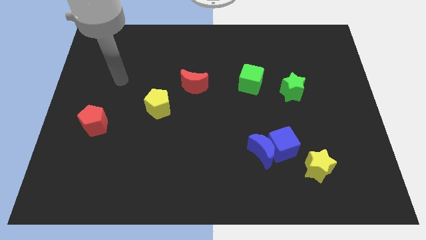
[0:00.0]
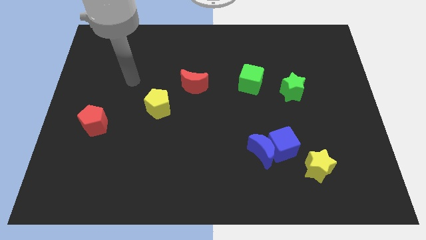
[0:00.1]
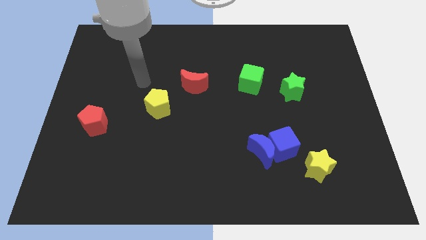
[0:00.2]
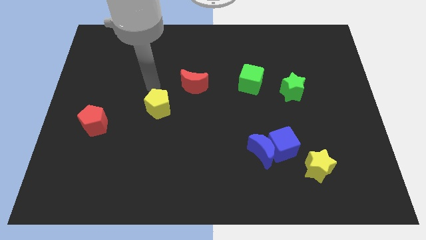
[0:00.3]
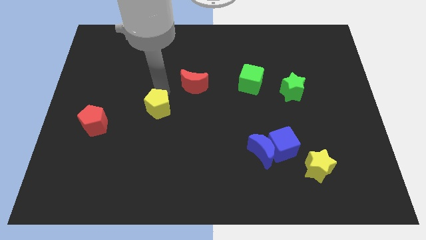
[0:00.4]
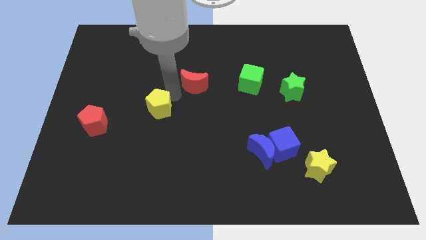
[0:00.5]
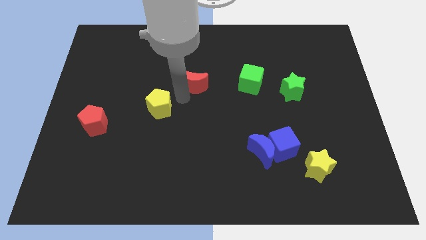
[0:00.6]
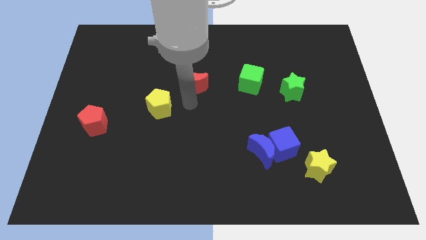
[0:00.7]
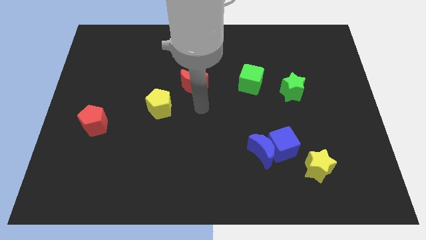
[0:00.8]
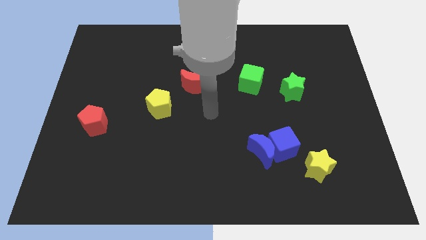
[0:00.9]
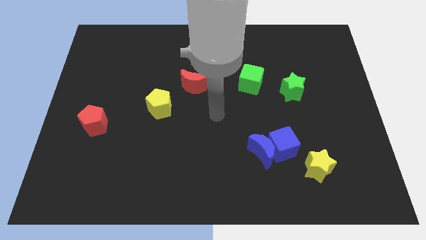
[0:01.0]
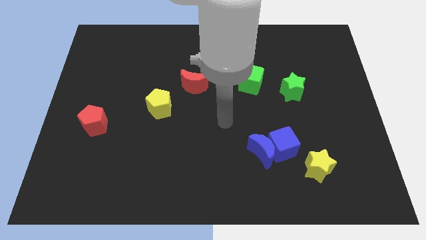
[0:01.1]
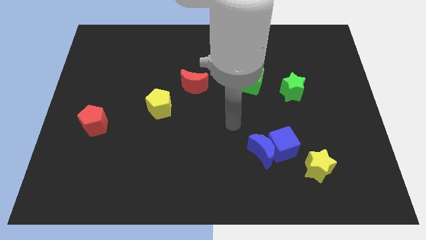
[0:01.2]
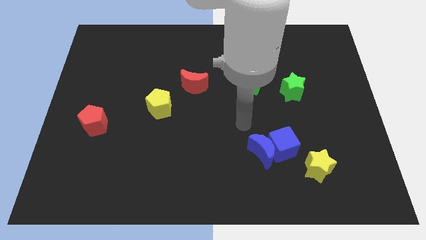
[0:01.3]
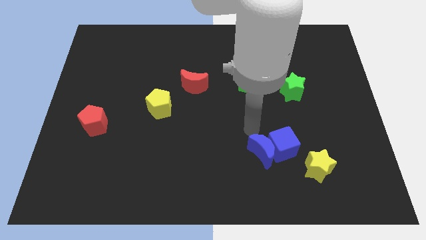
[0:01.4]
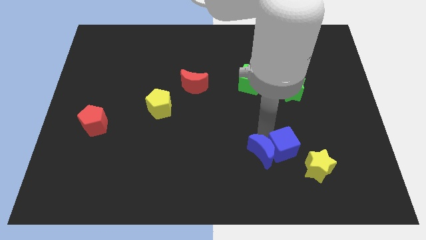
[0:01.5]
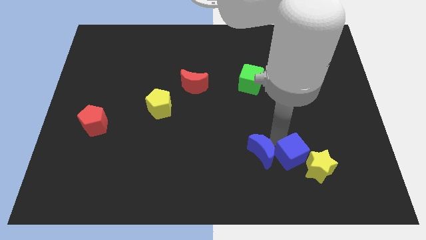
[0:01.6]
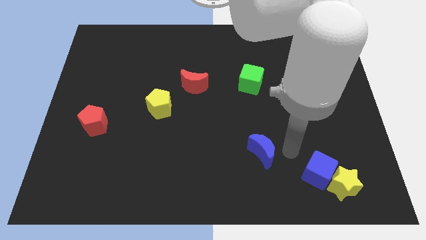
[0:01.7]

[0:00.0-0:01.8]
move the blue moon away from the blue cube

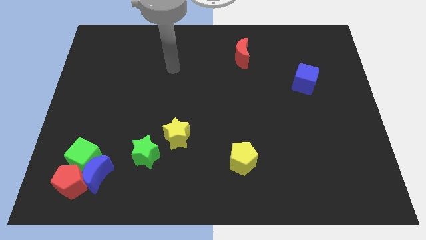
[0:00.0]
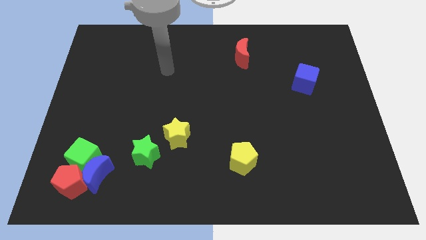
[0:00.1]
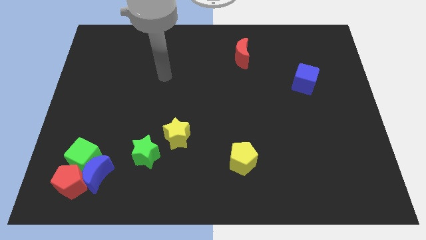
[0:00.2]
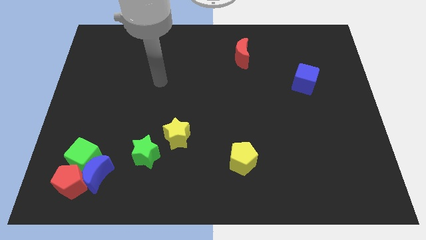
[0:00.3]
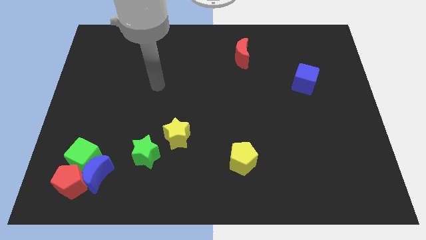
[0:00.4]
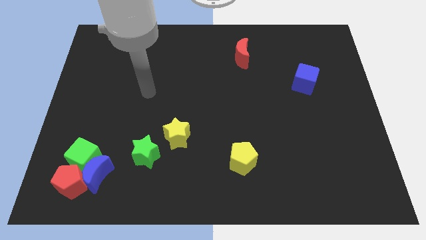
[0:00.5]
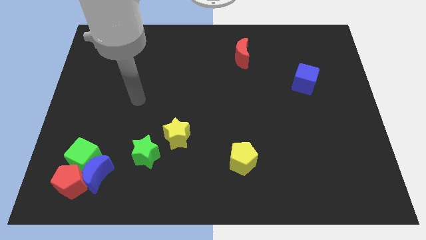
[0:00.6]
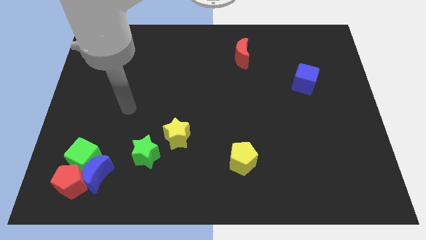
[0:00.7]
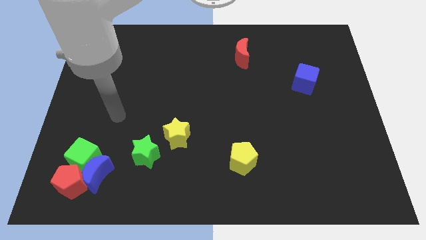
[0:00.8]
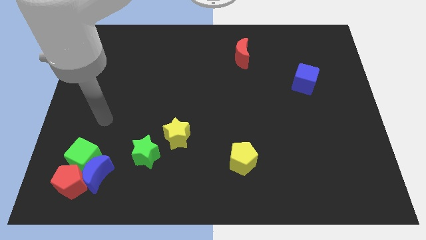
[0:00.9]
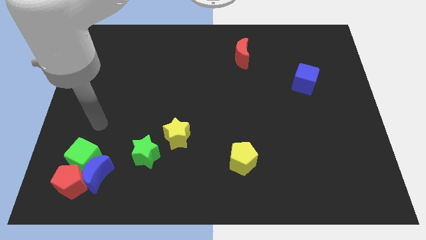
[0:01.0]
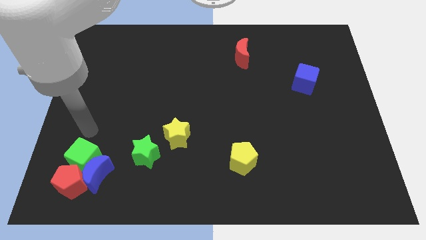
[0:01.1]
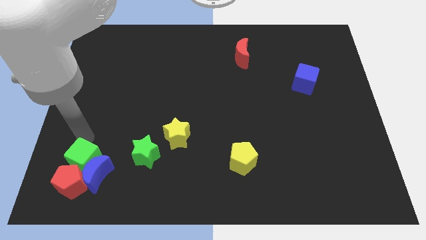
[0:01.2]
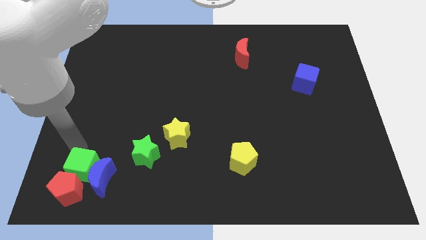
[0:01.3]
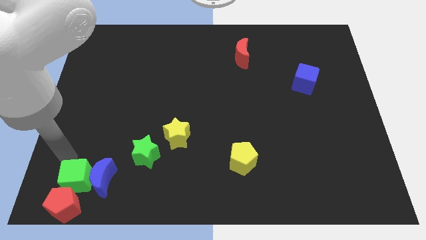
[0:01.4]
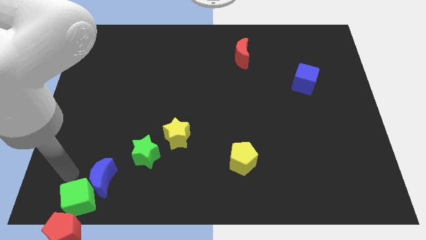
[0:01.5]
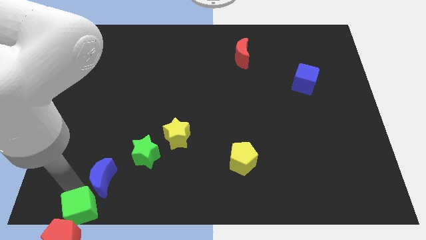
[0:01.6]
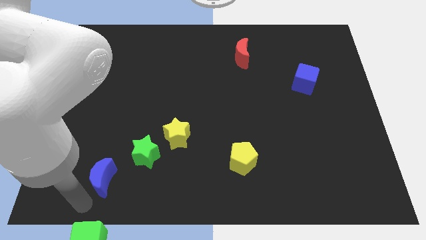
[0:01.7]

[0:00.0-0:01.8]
pull the blue moon apart from the green cube and red pentagon

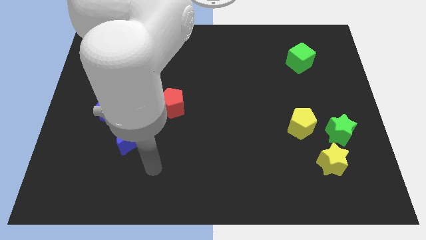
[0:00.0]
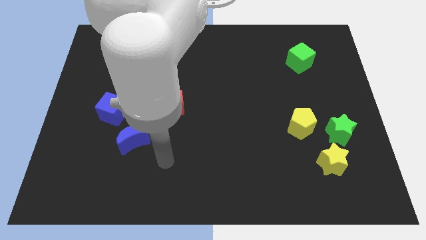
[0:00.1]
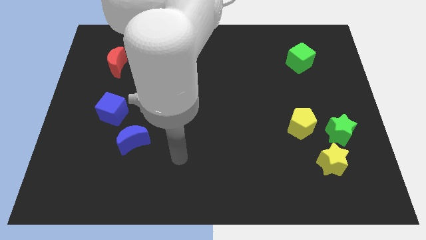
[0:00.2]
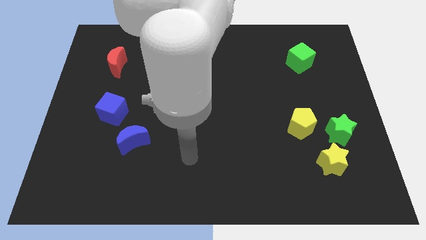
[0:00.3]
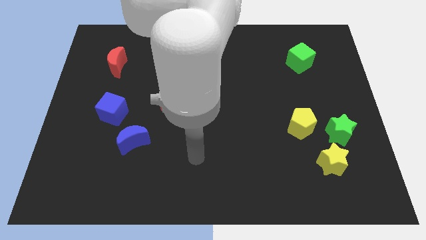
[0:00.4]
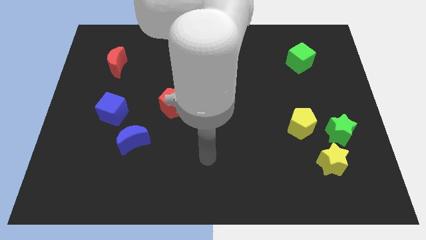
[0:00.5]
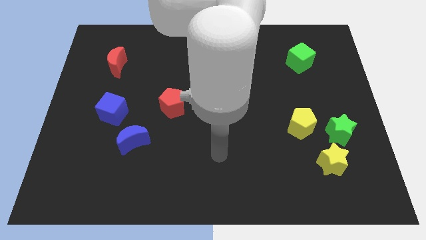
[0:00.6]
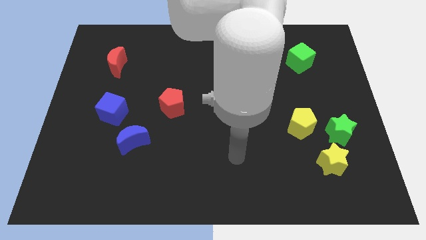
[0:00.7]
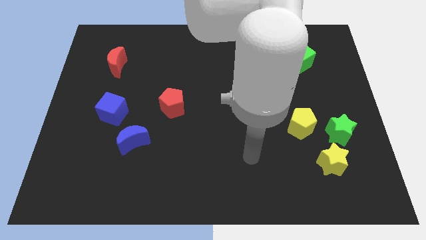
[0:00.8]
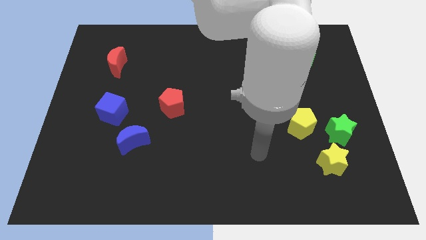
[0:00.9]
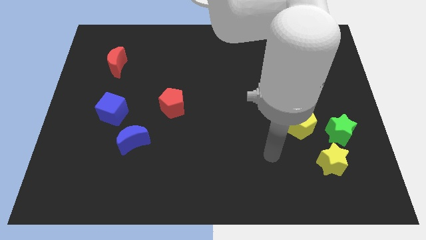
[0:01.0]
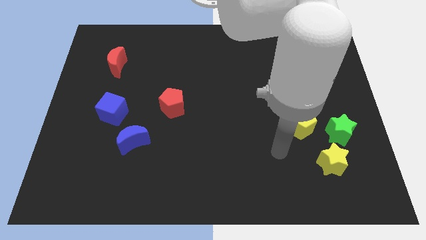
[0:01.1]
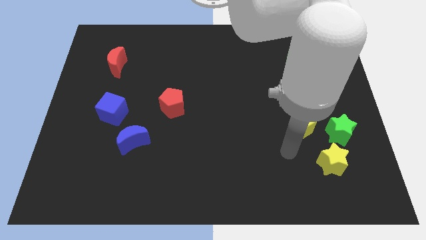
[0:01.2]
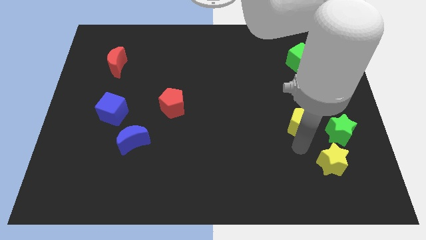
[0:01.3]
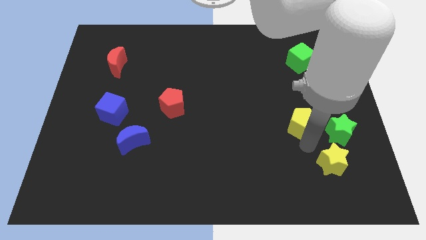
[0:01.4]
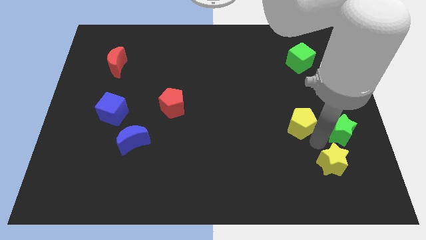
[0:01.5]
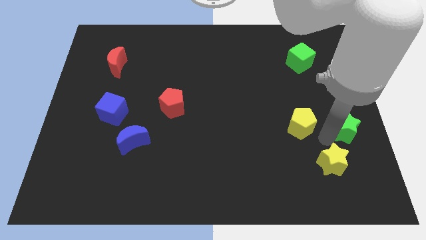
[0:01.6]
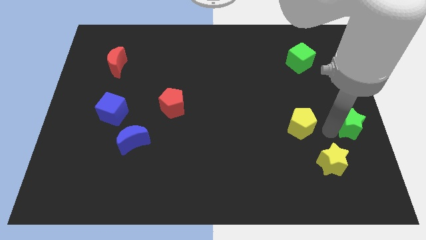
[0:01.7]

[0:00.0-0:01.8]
move the yellow pentagon away from the green star

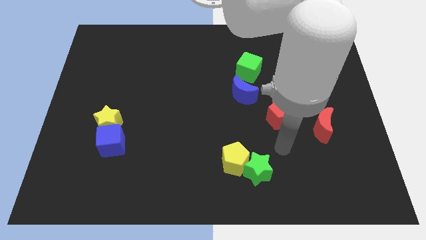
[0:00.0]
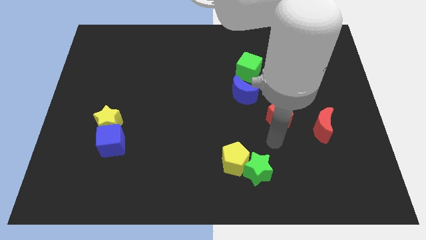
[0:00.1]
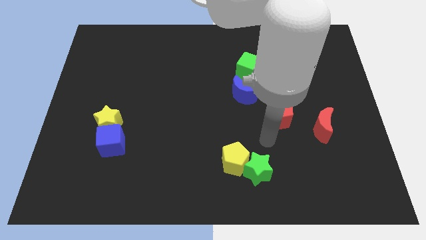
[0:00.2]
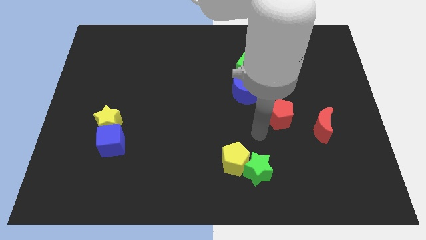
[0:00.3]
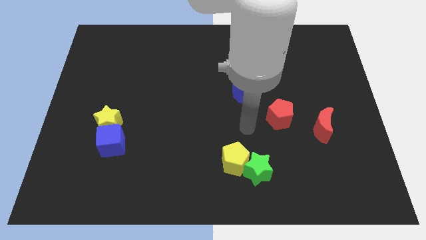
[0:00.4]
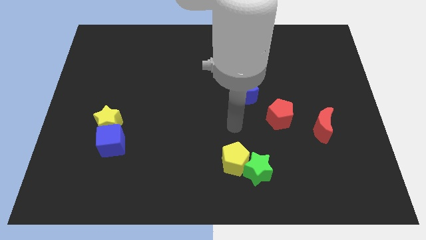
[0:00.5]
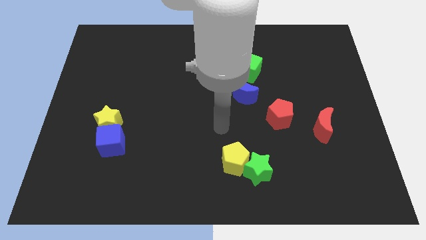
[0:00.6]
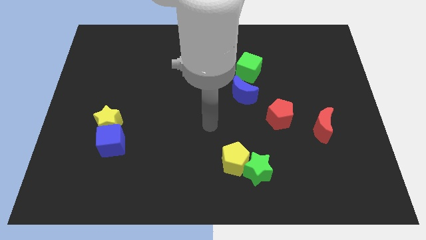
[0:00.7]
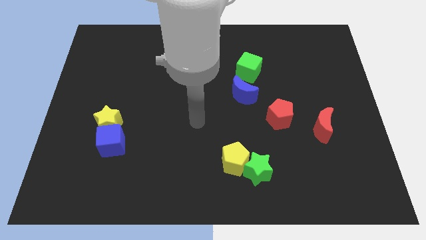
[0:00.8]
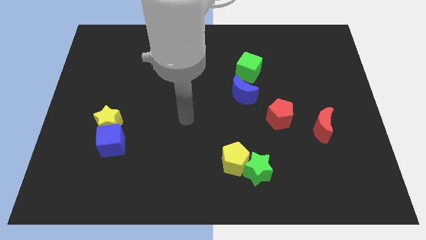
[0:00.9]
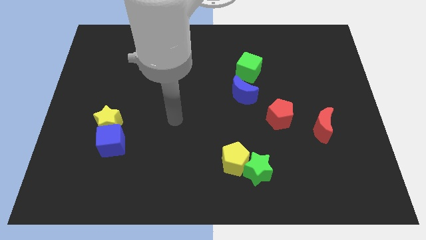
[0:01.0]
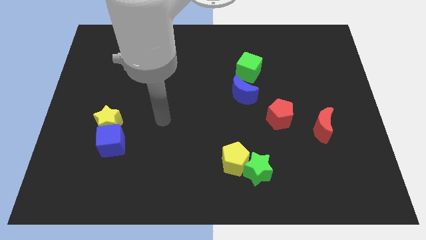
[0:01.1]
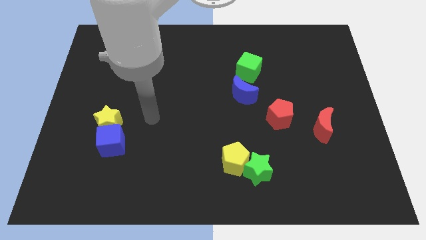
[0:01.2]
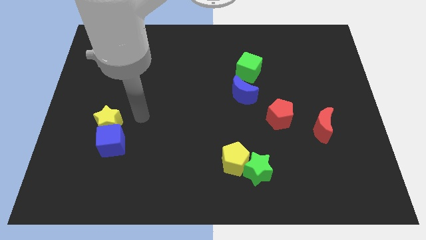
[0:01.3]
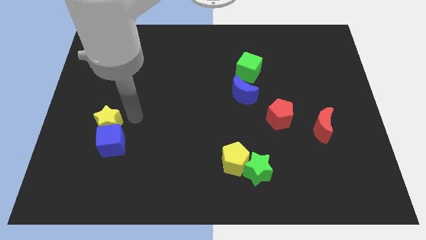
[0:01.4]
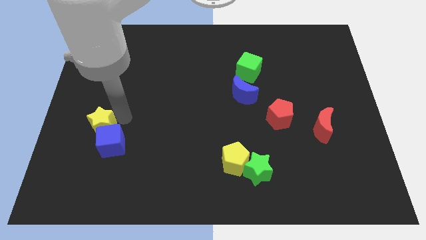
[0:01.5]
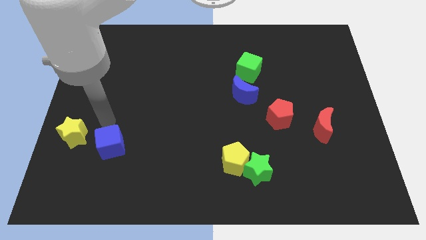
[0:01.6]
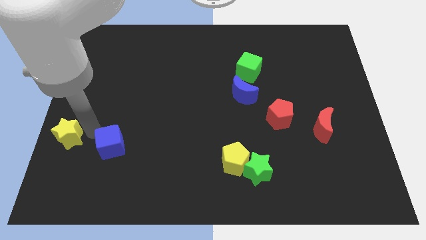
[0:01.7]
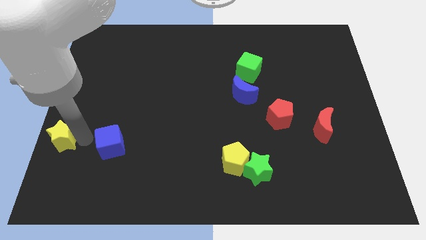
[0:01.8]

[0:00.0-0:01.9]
move the blue cube away from the yellow star

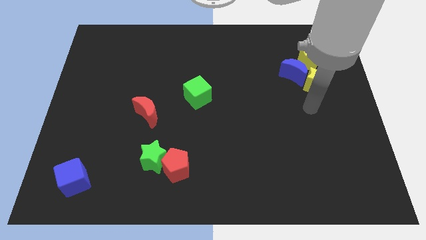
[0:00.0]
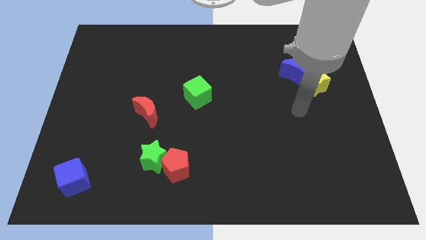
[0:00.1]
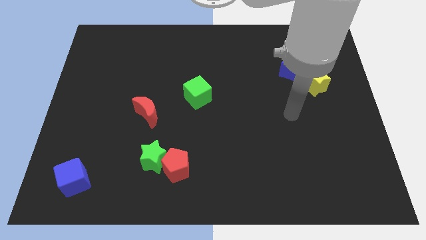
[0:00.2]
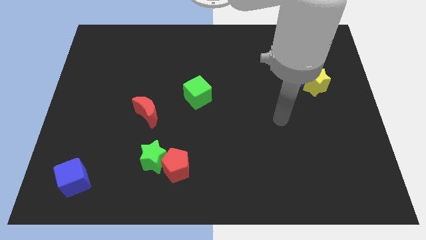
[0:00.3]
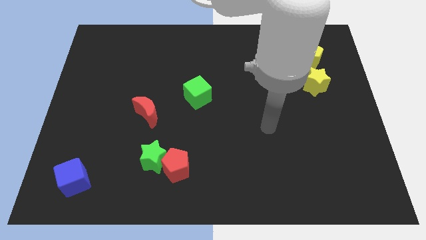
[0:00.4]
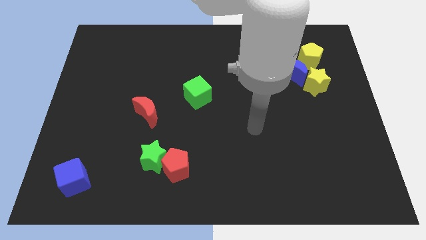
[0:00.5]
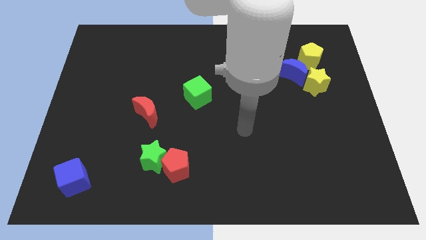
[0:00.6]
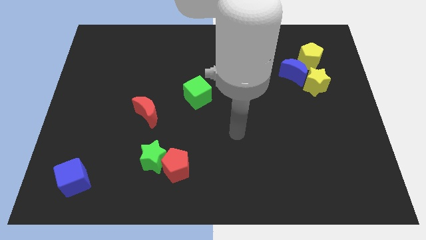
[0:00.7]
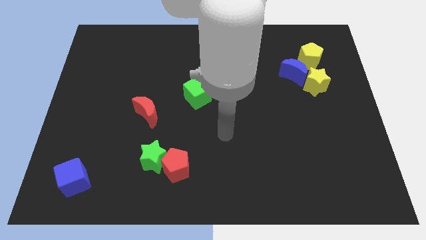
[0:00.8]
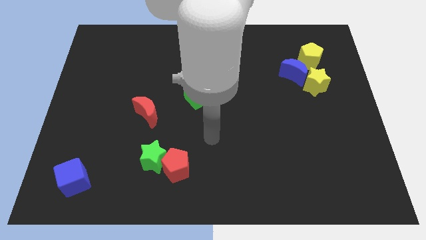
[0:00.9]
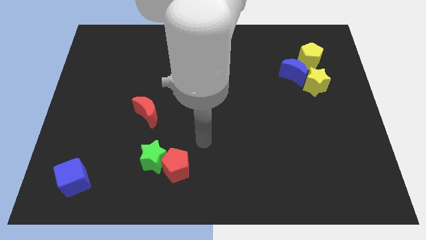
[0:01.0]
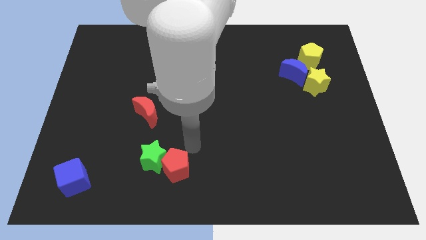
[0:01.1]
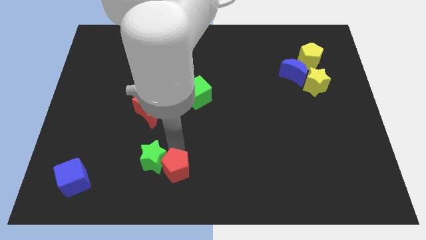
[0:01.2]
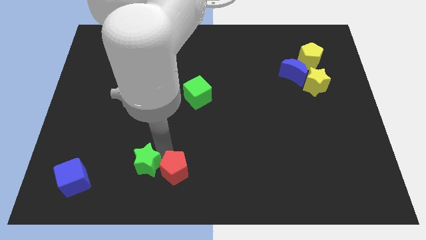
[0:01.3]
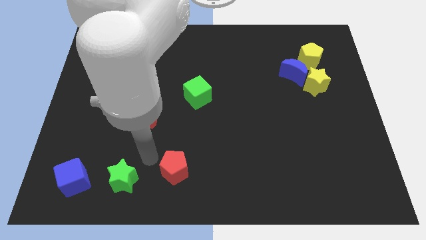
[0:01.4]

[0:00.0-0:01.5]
move the red pentagon away from the green star

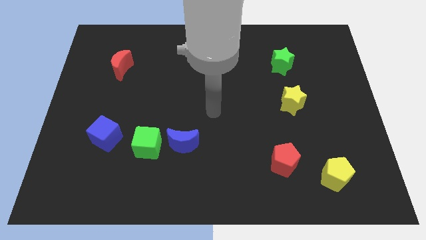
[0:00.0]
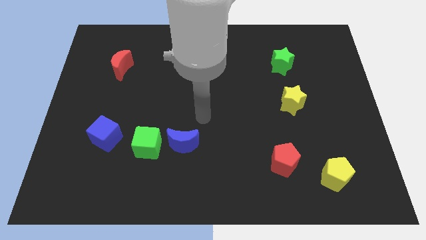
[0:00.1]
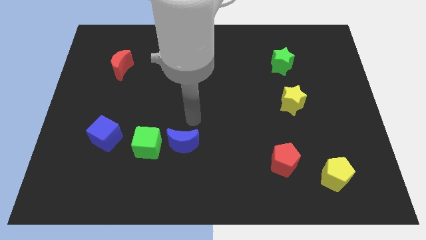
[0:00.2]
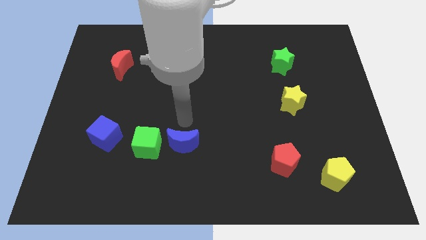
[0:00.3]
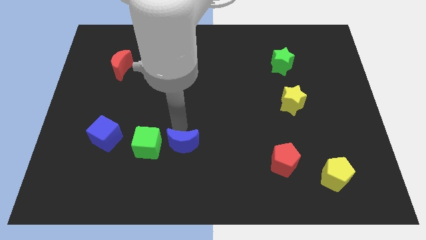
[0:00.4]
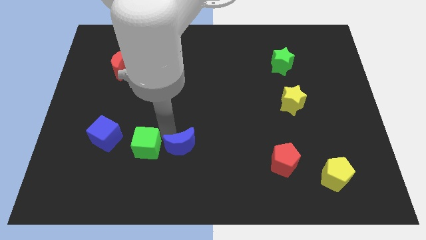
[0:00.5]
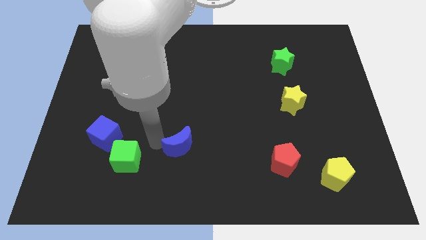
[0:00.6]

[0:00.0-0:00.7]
move the blue moon away from the green cube
